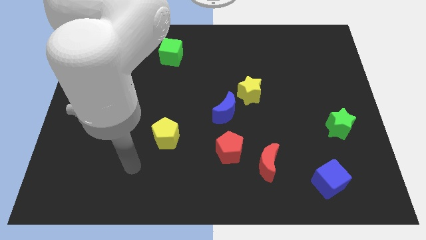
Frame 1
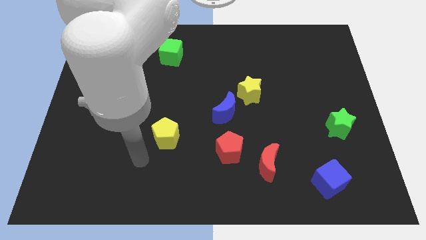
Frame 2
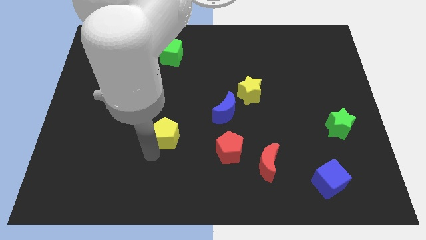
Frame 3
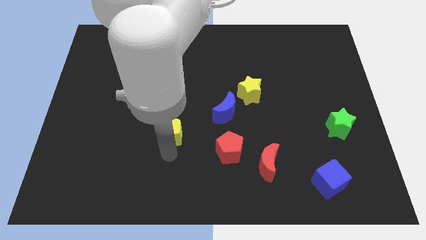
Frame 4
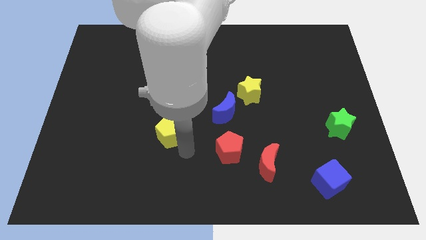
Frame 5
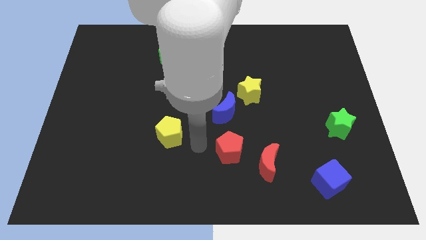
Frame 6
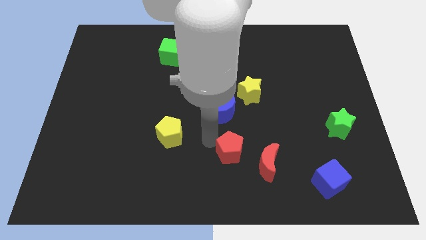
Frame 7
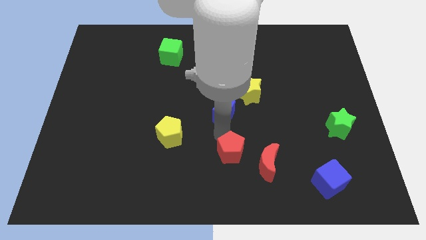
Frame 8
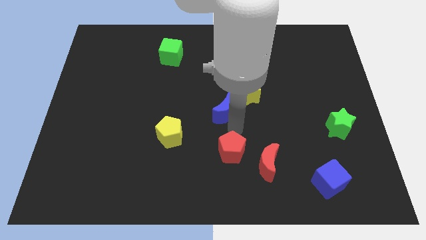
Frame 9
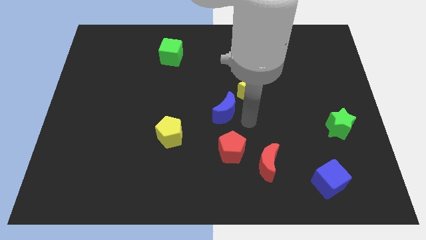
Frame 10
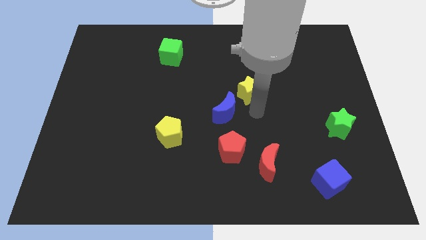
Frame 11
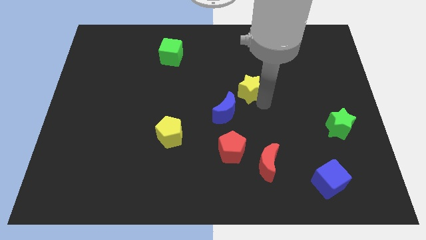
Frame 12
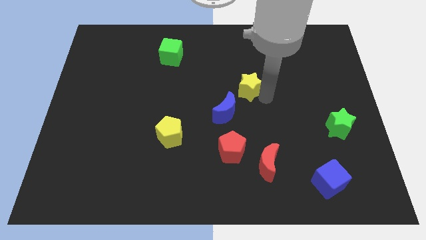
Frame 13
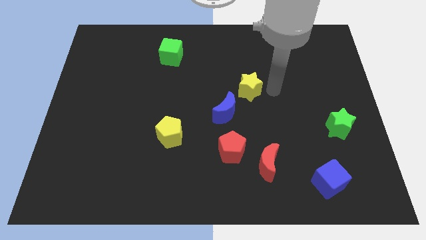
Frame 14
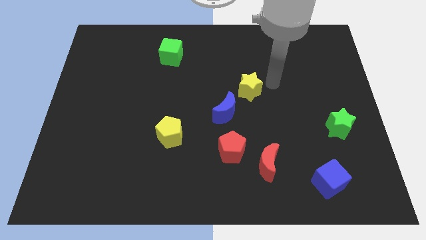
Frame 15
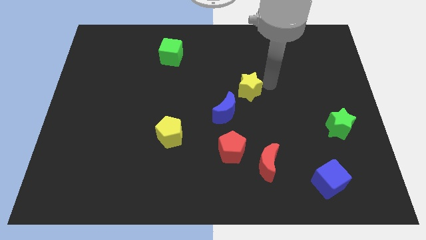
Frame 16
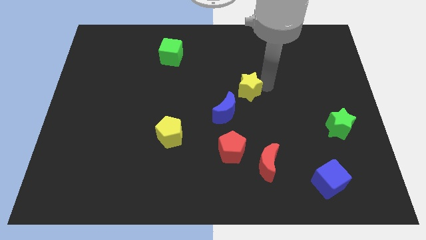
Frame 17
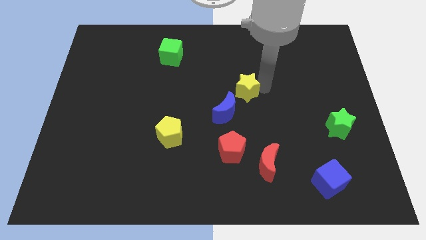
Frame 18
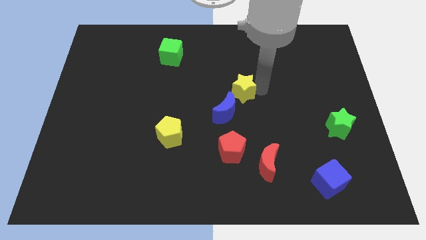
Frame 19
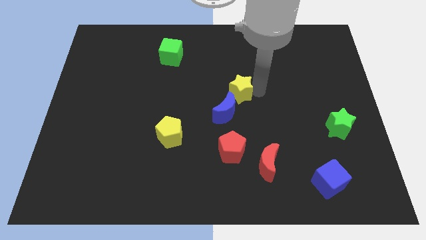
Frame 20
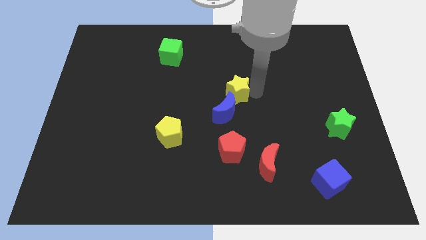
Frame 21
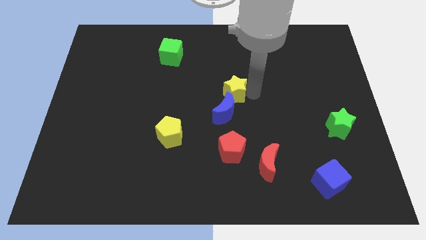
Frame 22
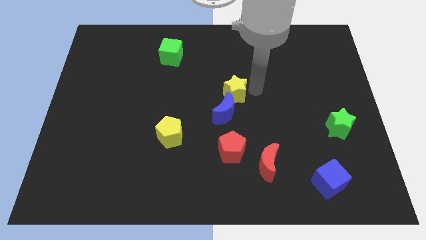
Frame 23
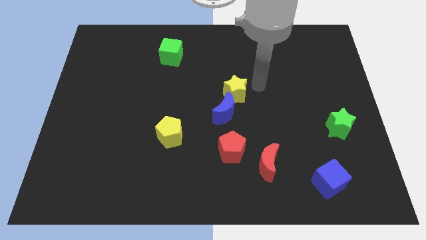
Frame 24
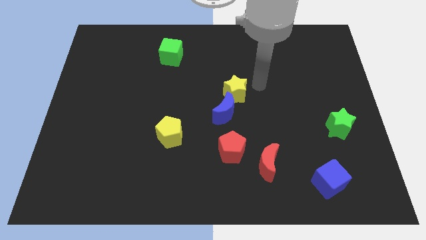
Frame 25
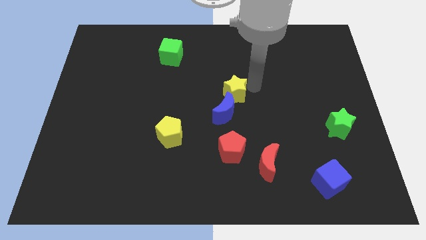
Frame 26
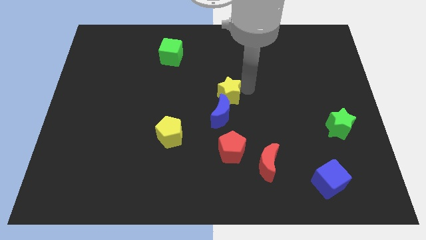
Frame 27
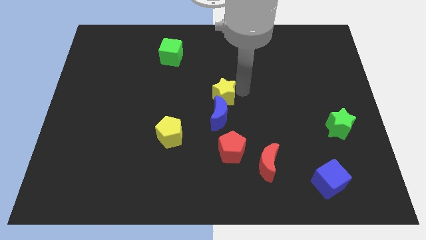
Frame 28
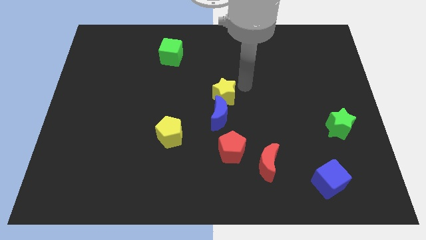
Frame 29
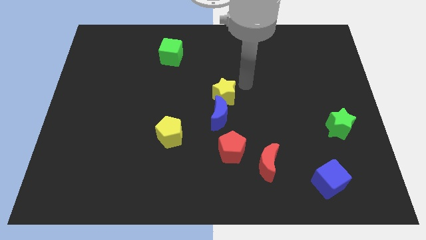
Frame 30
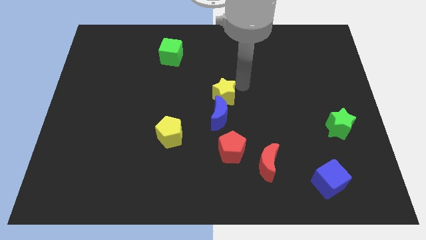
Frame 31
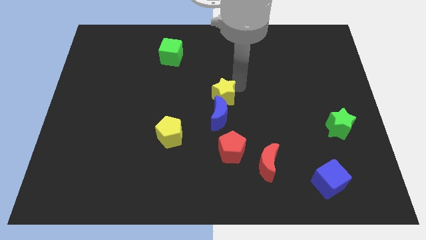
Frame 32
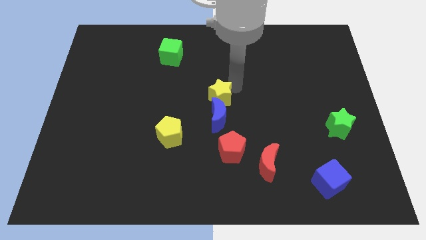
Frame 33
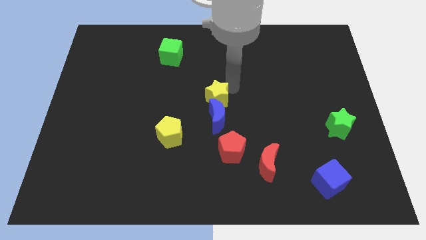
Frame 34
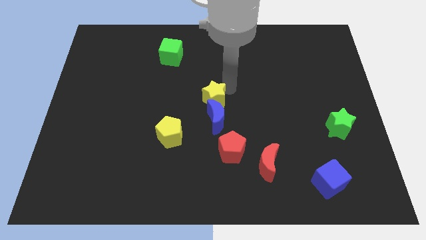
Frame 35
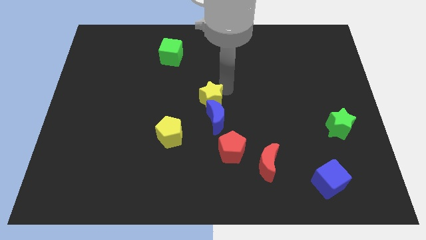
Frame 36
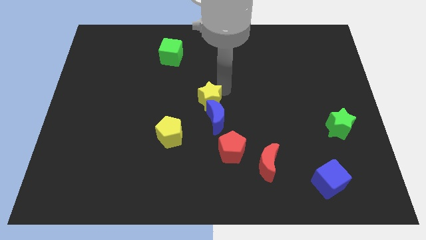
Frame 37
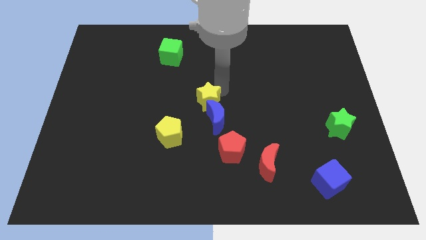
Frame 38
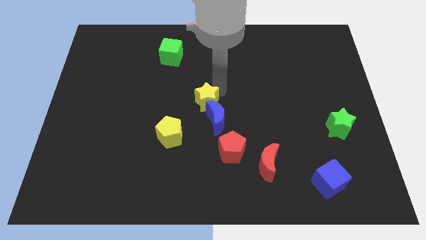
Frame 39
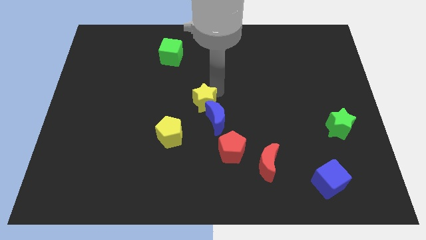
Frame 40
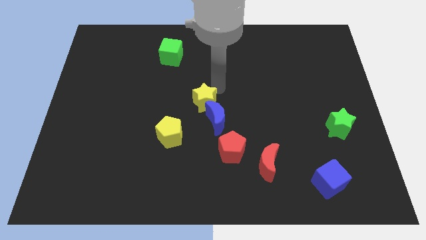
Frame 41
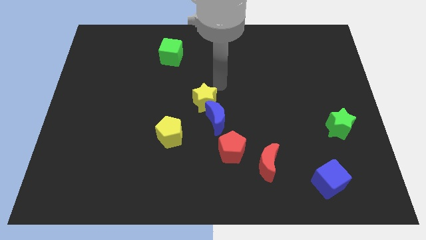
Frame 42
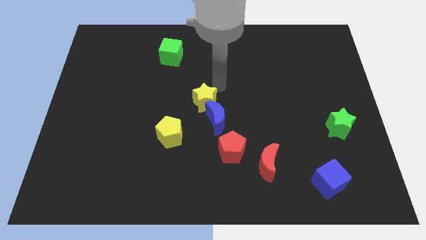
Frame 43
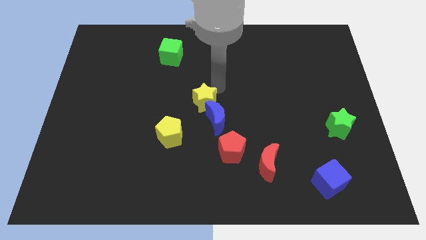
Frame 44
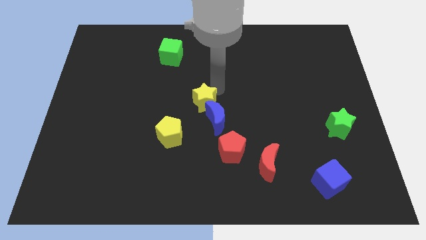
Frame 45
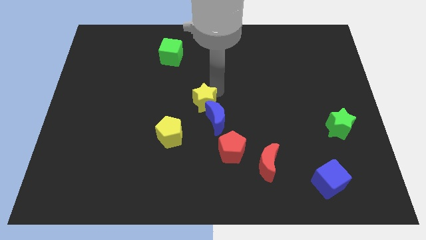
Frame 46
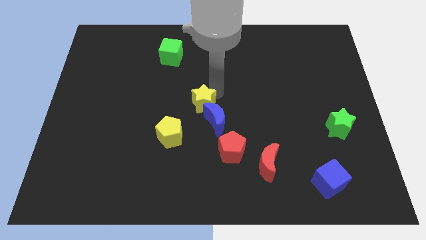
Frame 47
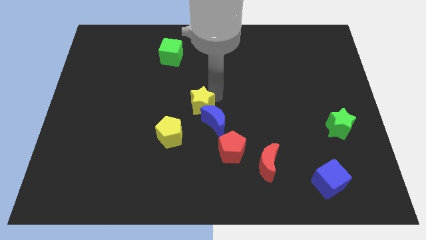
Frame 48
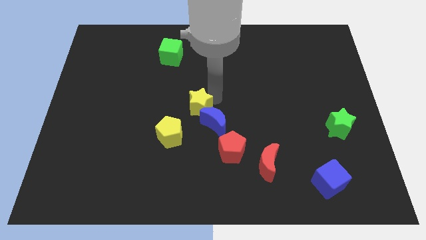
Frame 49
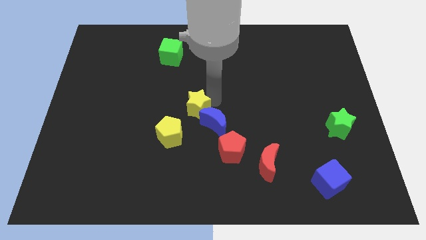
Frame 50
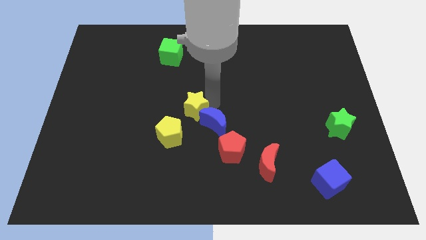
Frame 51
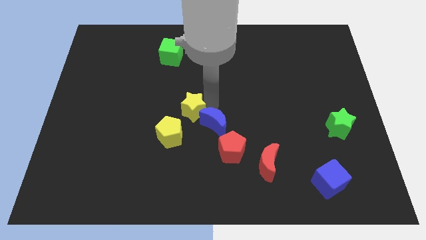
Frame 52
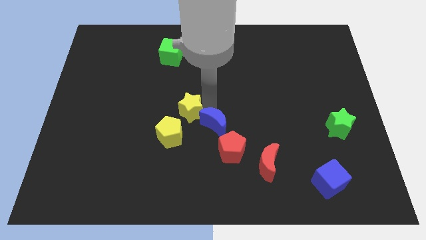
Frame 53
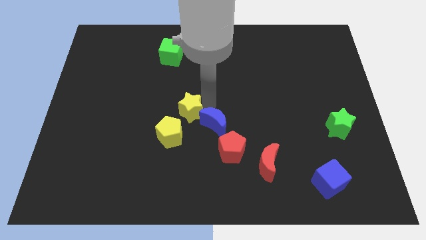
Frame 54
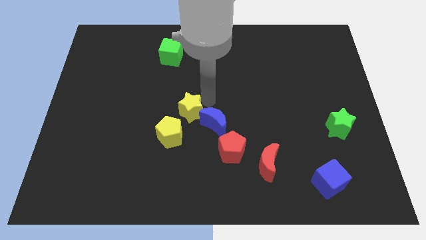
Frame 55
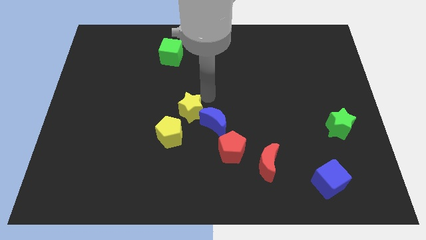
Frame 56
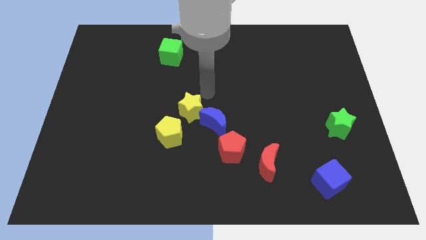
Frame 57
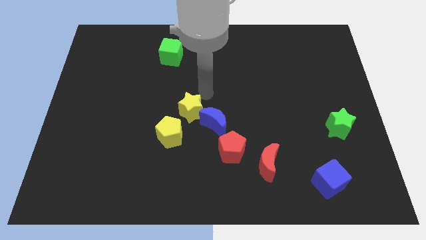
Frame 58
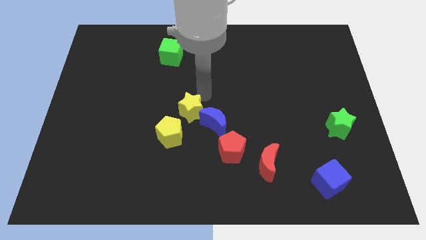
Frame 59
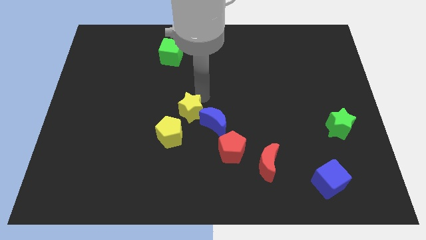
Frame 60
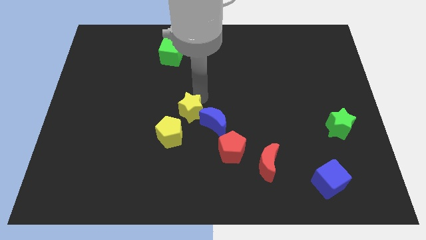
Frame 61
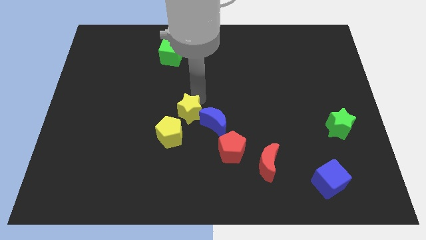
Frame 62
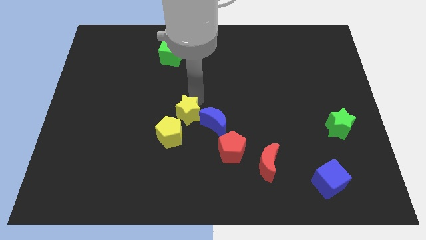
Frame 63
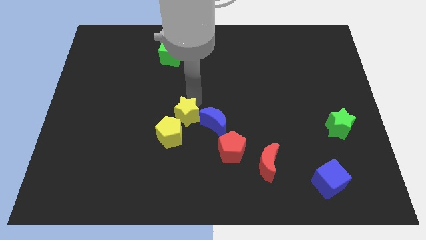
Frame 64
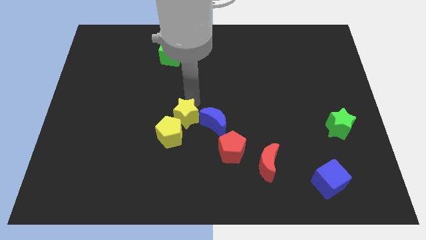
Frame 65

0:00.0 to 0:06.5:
slide the yellow star next to the yellow pentagon

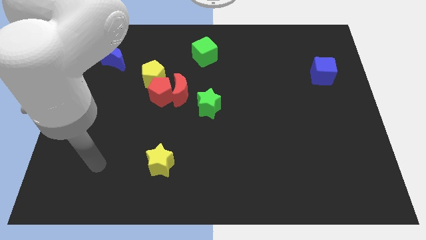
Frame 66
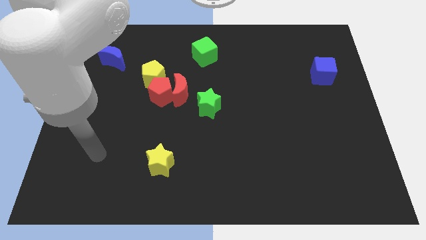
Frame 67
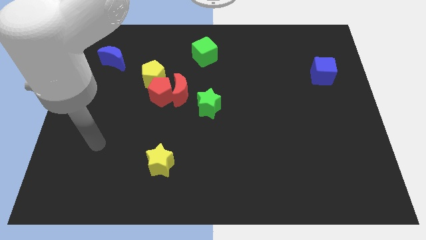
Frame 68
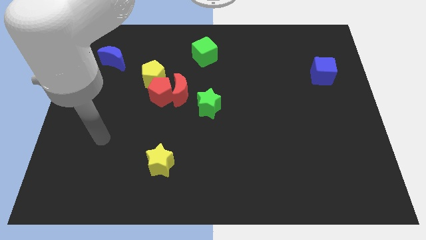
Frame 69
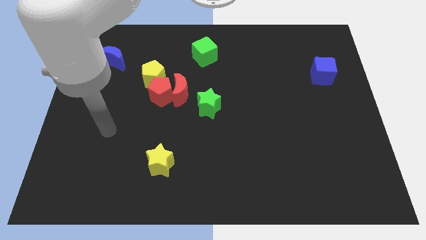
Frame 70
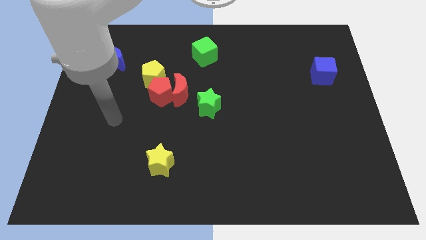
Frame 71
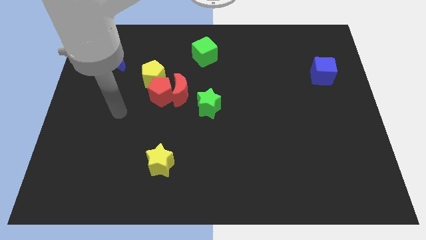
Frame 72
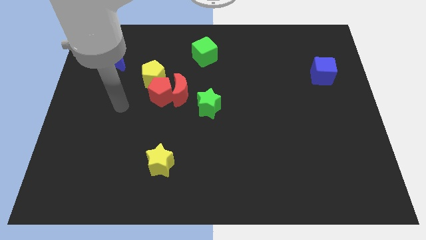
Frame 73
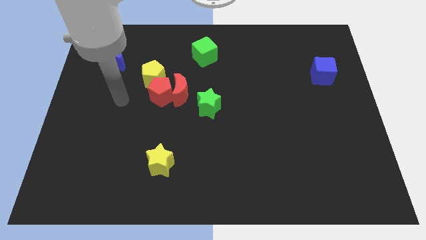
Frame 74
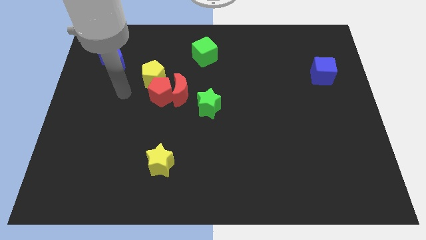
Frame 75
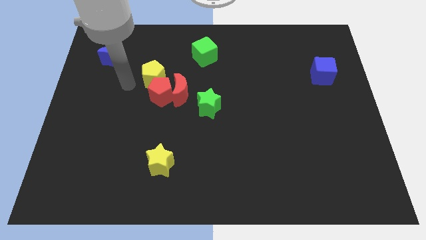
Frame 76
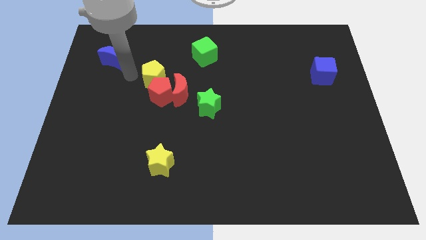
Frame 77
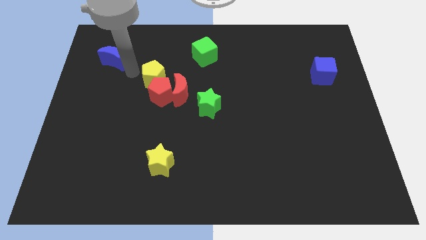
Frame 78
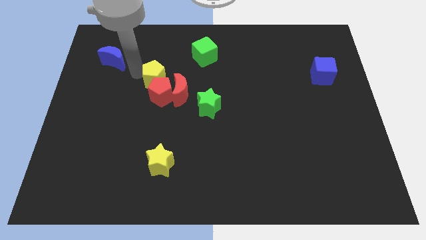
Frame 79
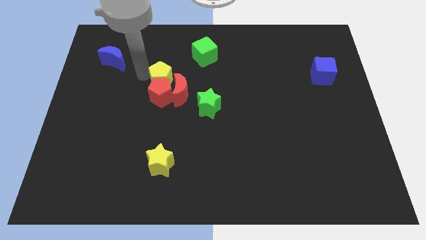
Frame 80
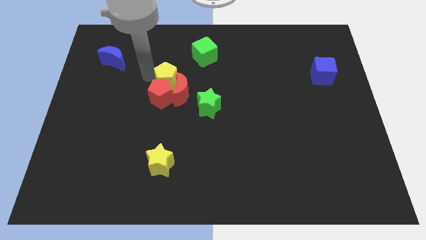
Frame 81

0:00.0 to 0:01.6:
put the yellow pentagon to the red moon
